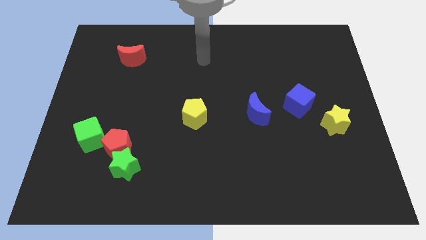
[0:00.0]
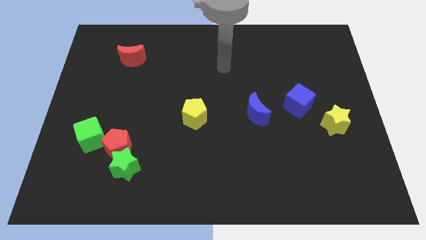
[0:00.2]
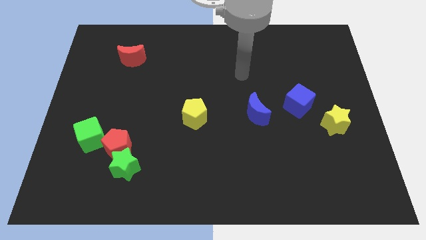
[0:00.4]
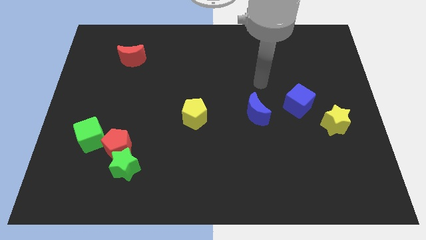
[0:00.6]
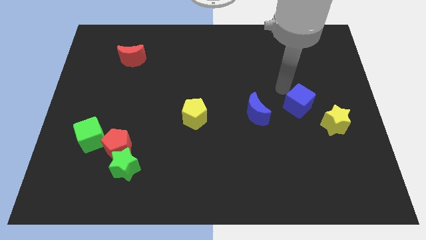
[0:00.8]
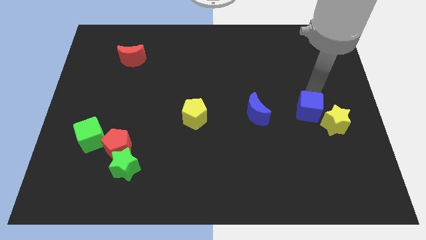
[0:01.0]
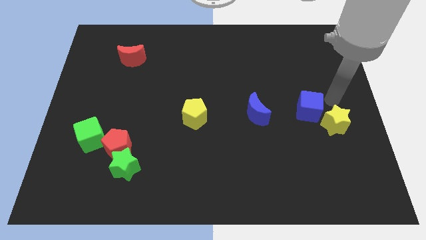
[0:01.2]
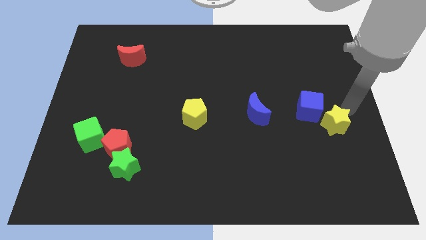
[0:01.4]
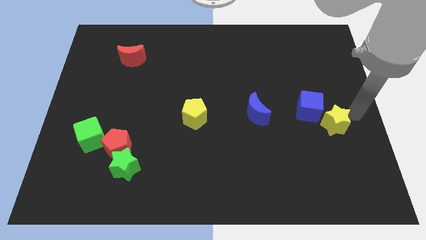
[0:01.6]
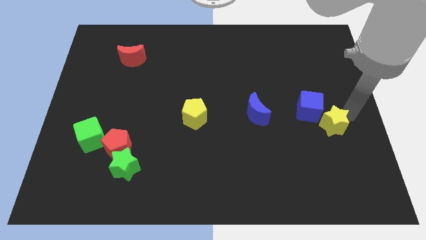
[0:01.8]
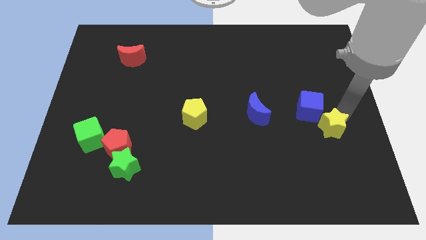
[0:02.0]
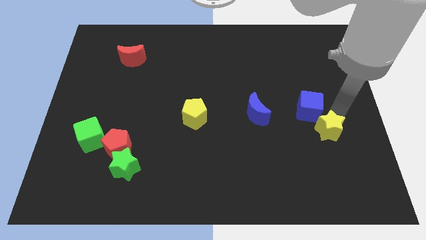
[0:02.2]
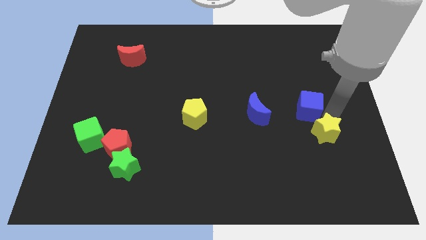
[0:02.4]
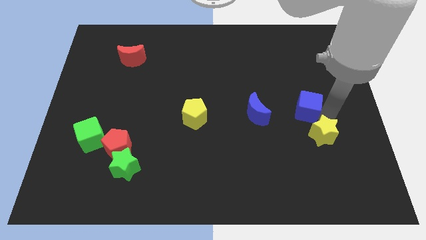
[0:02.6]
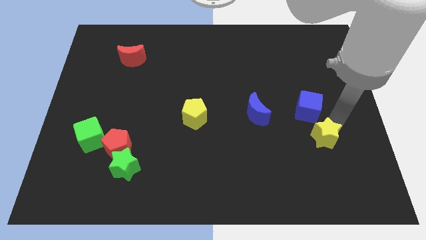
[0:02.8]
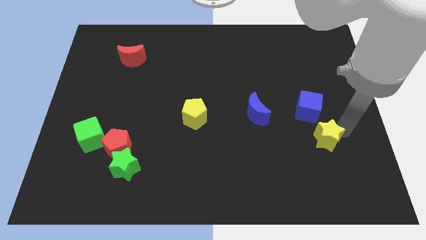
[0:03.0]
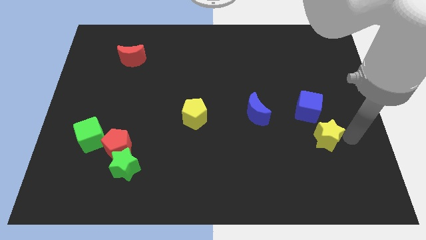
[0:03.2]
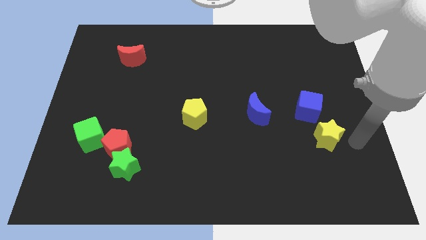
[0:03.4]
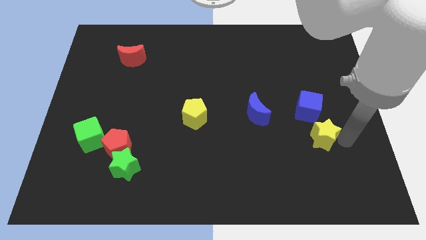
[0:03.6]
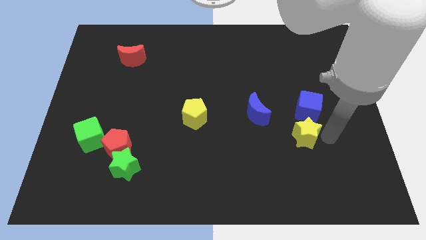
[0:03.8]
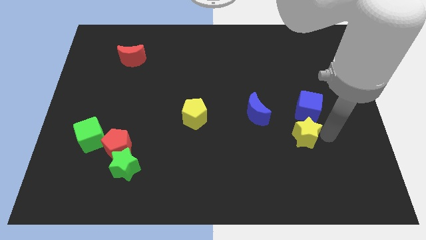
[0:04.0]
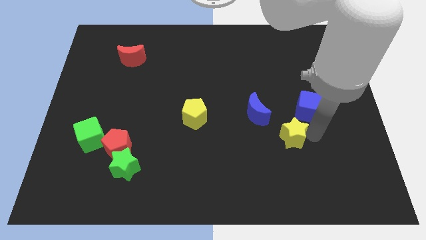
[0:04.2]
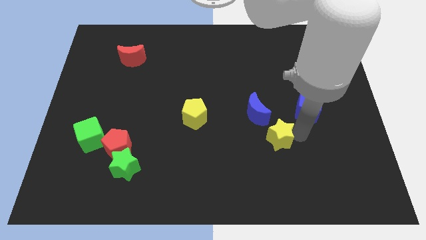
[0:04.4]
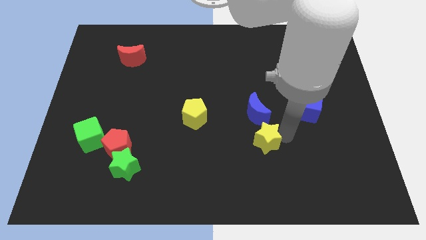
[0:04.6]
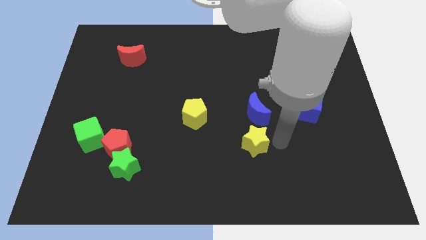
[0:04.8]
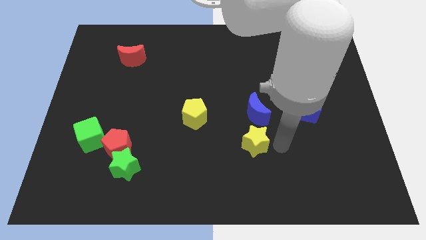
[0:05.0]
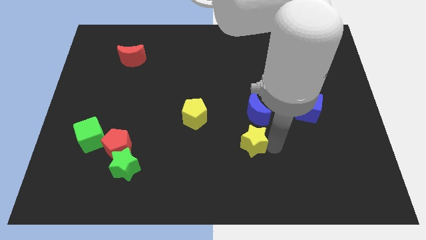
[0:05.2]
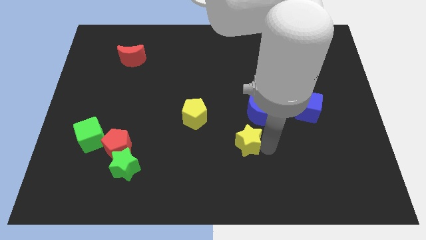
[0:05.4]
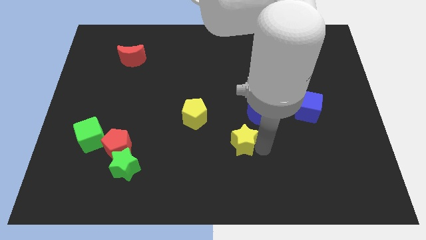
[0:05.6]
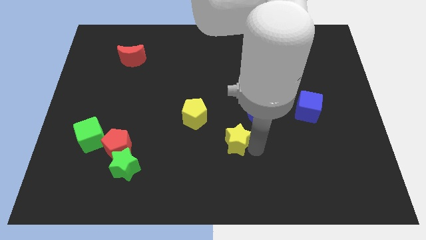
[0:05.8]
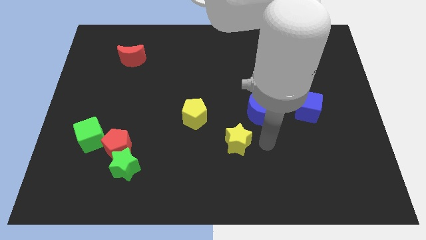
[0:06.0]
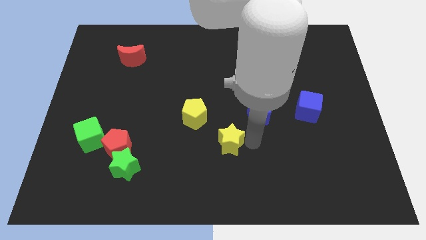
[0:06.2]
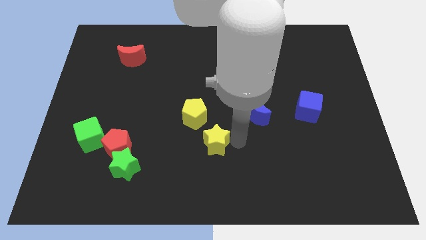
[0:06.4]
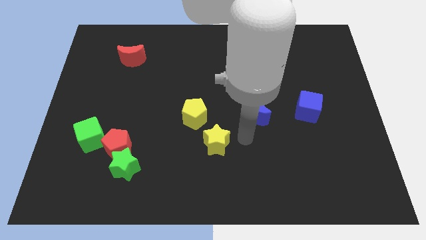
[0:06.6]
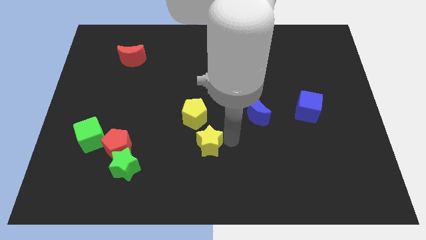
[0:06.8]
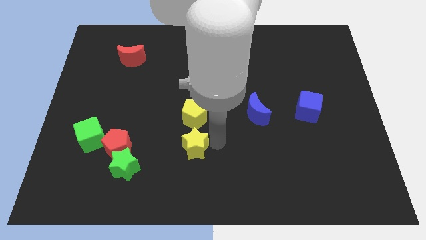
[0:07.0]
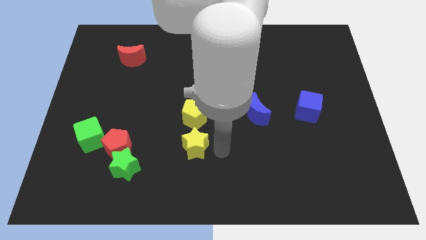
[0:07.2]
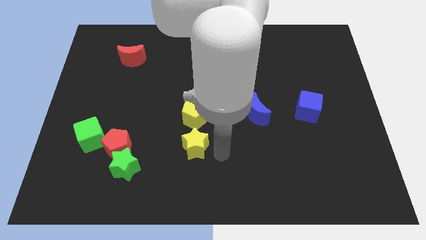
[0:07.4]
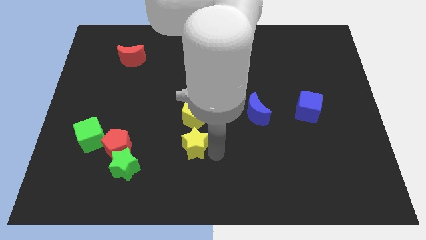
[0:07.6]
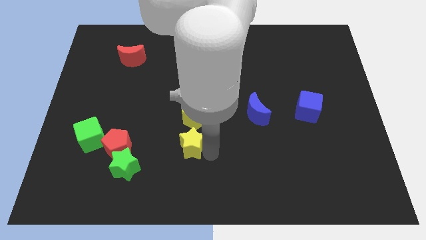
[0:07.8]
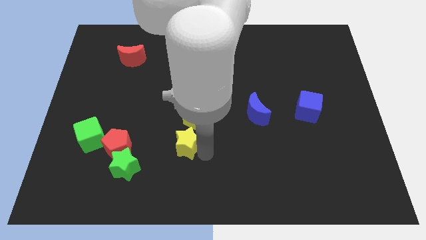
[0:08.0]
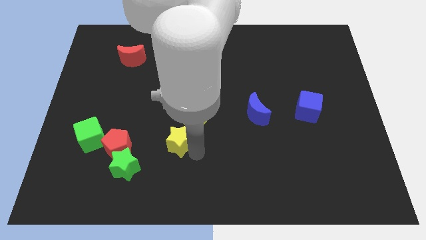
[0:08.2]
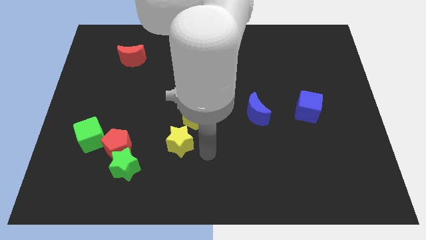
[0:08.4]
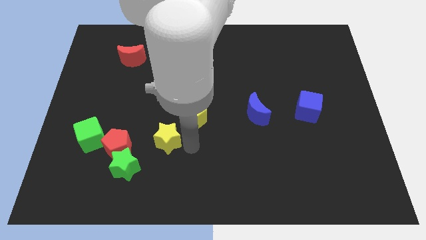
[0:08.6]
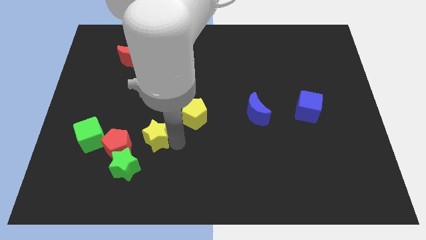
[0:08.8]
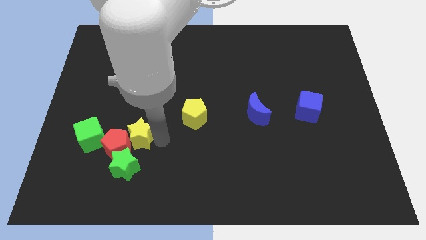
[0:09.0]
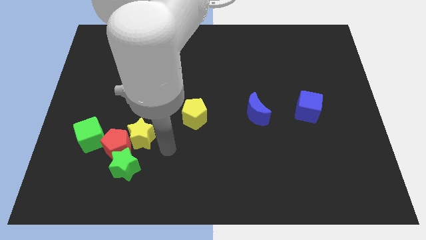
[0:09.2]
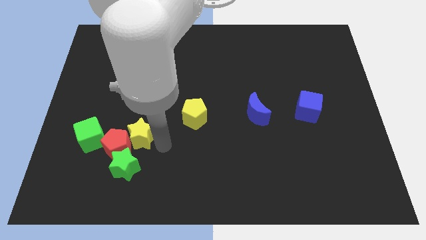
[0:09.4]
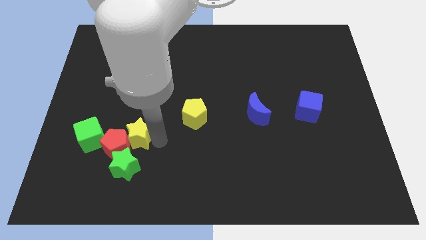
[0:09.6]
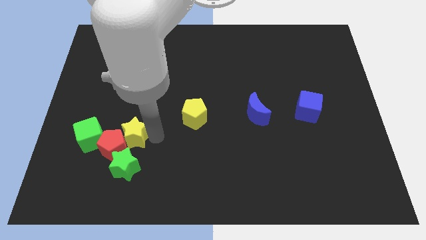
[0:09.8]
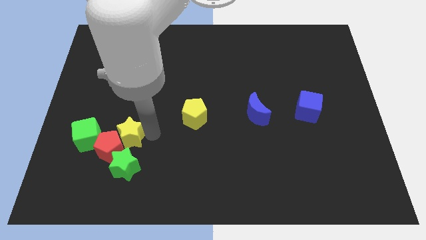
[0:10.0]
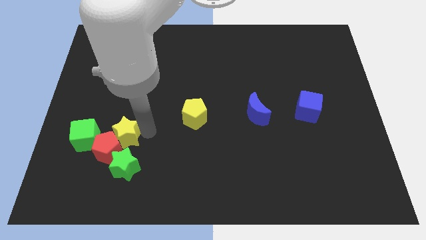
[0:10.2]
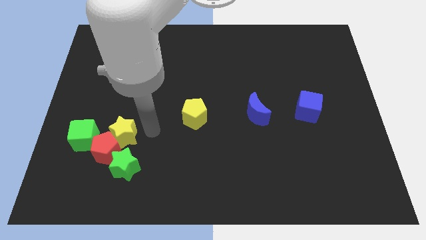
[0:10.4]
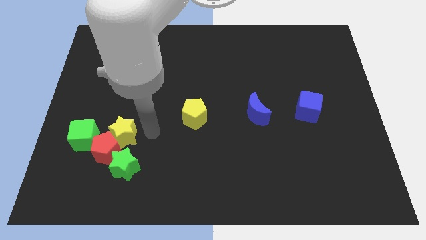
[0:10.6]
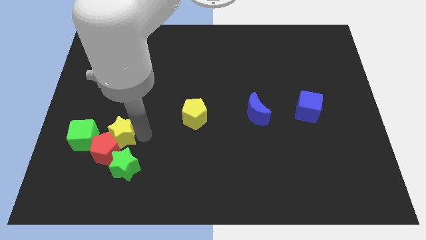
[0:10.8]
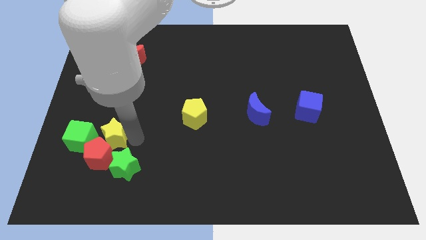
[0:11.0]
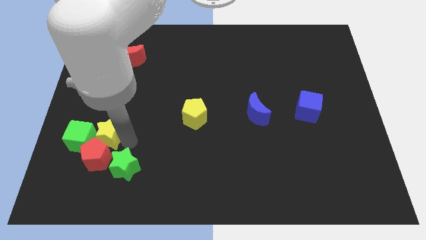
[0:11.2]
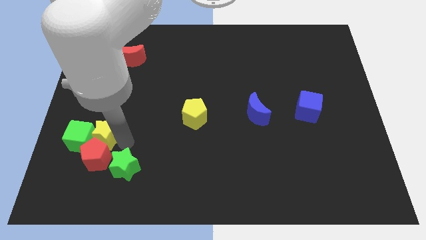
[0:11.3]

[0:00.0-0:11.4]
move the yellow star towards the green cube

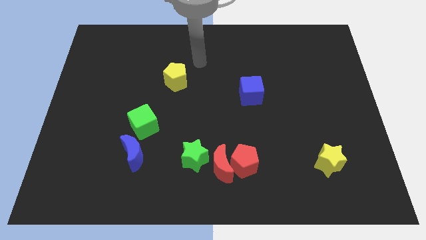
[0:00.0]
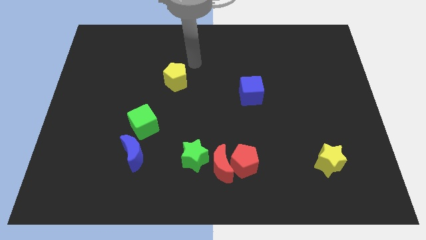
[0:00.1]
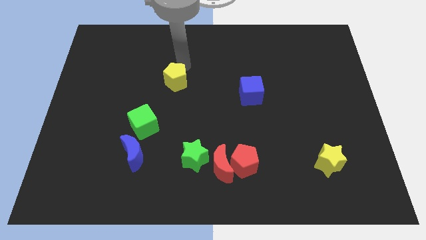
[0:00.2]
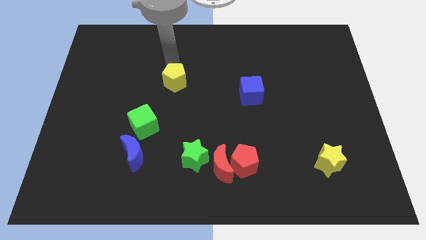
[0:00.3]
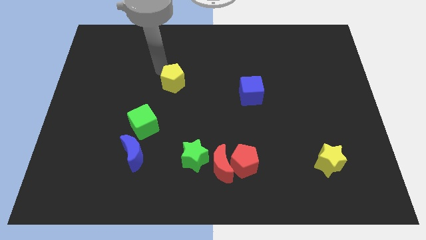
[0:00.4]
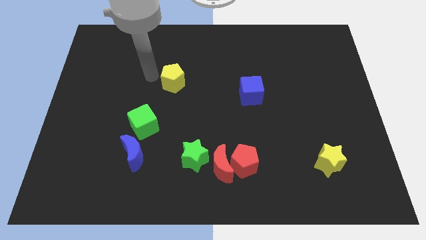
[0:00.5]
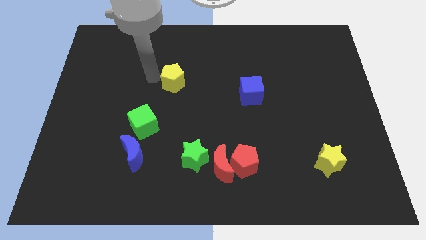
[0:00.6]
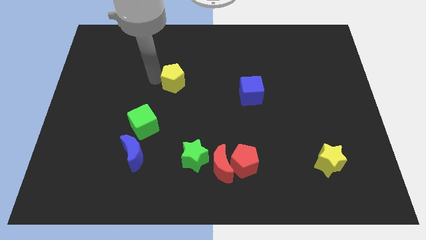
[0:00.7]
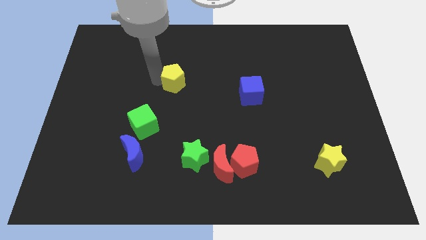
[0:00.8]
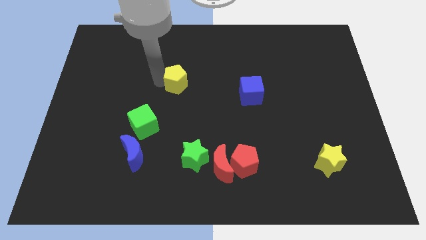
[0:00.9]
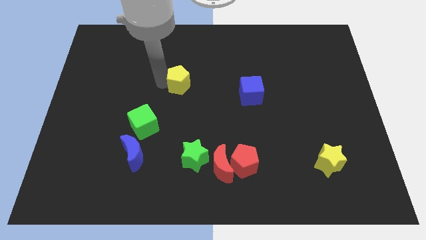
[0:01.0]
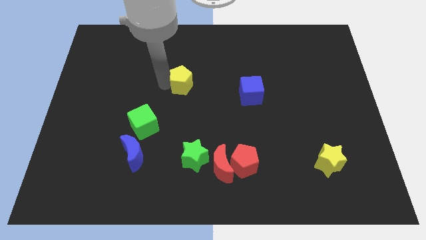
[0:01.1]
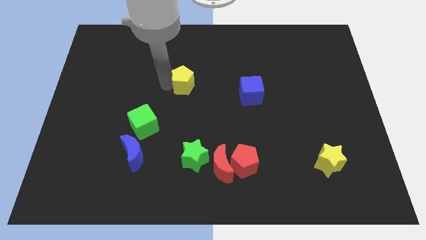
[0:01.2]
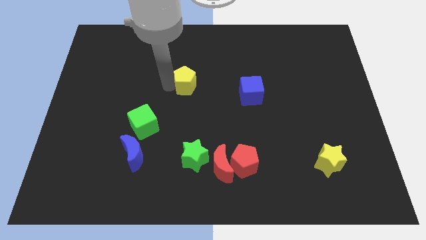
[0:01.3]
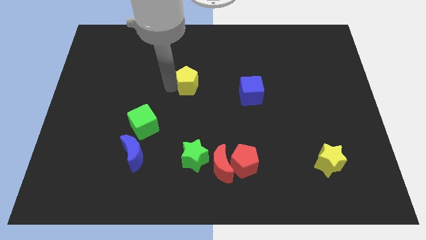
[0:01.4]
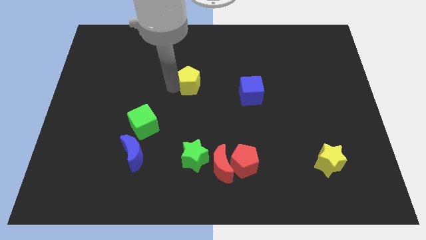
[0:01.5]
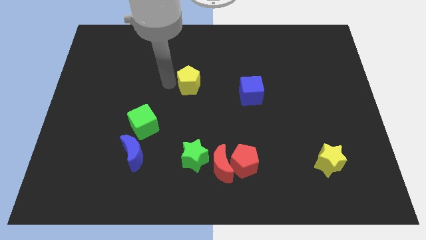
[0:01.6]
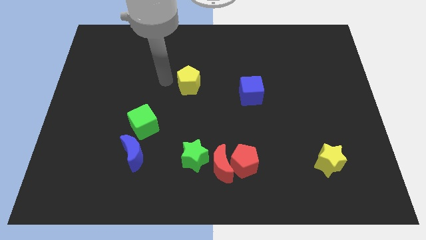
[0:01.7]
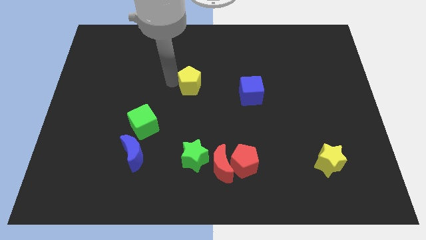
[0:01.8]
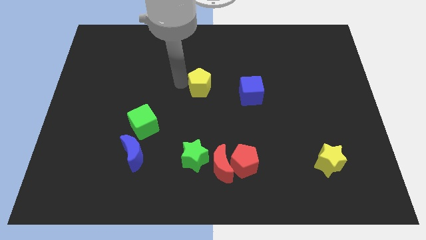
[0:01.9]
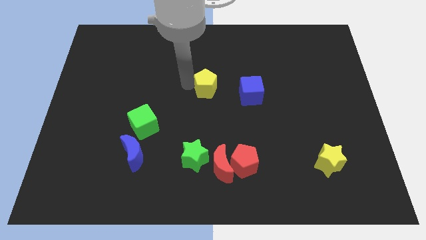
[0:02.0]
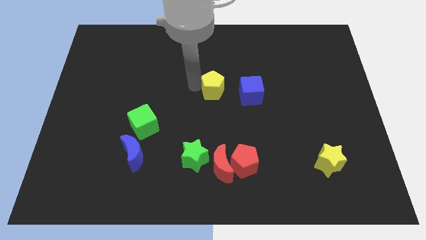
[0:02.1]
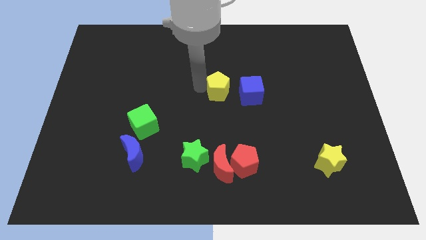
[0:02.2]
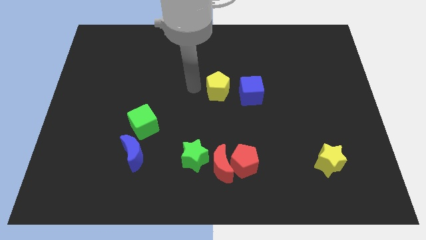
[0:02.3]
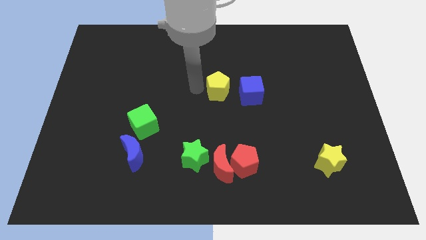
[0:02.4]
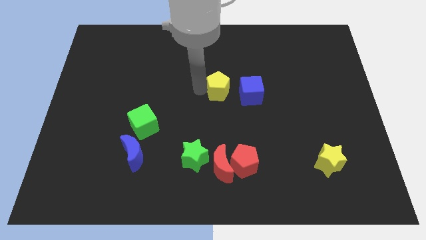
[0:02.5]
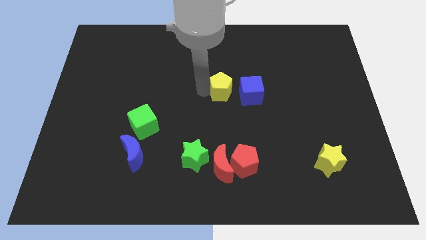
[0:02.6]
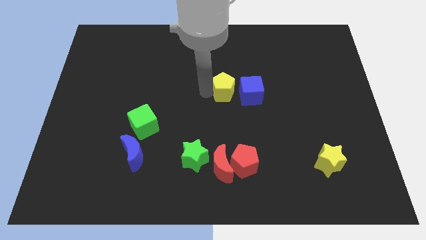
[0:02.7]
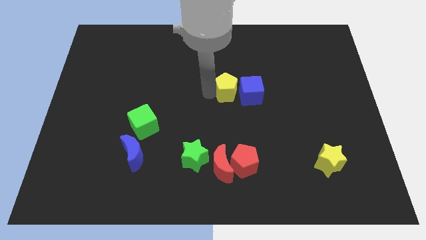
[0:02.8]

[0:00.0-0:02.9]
move the yellow pentagon to the blue cube
